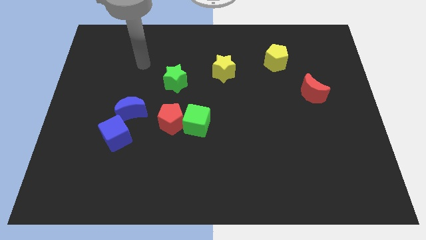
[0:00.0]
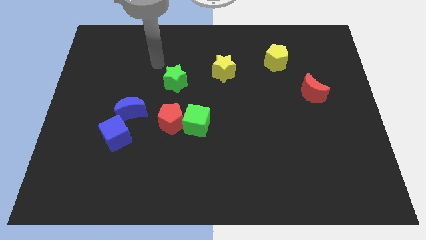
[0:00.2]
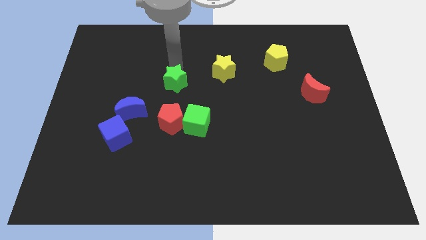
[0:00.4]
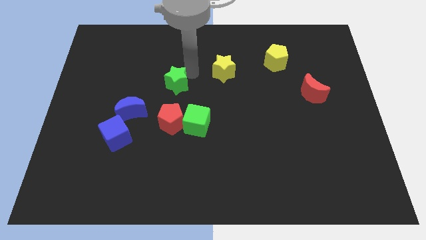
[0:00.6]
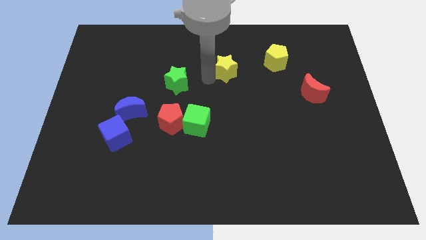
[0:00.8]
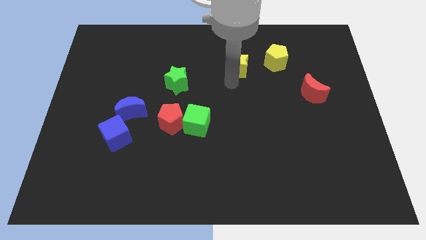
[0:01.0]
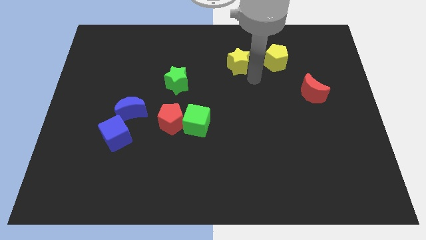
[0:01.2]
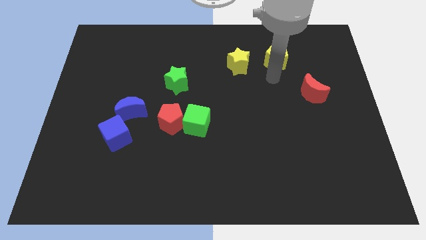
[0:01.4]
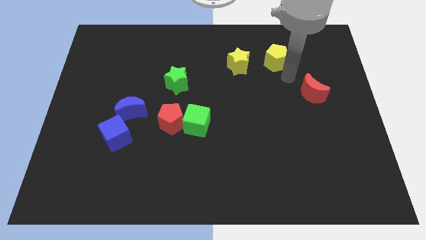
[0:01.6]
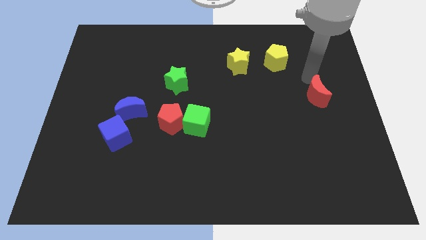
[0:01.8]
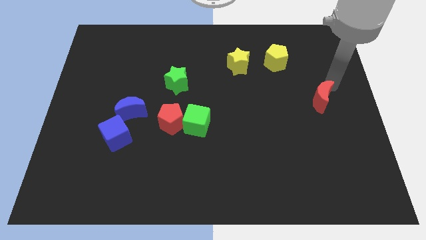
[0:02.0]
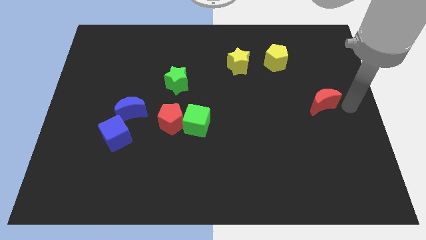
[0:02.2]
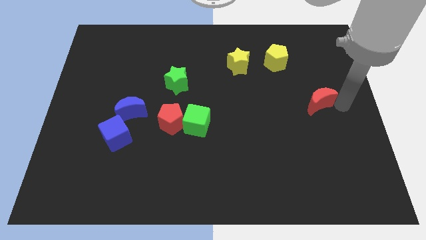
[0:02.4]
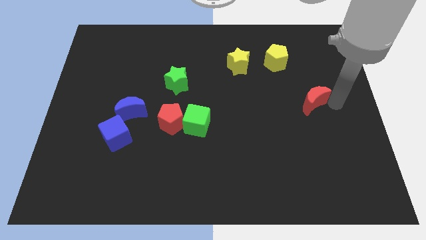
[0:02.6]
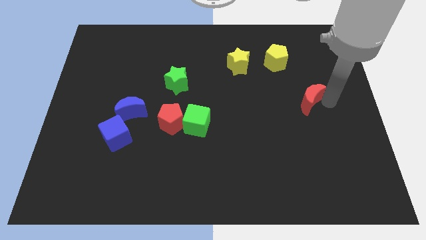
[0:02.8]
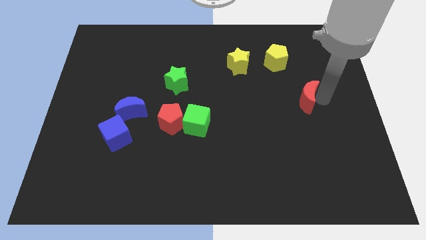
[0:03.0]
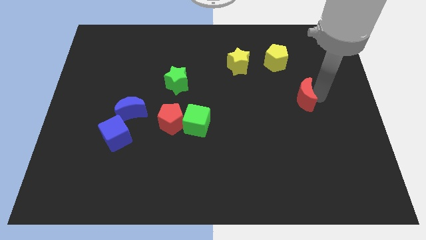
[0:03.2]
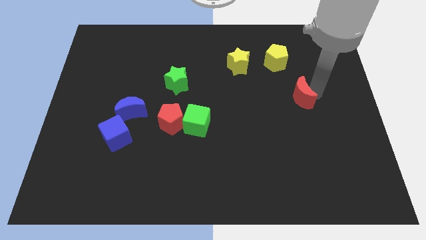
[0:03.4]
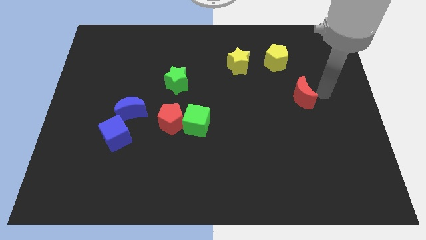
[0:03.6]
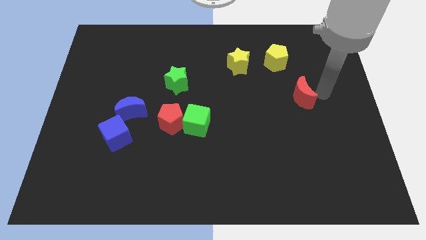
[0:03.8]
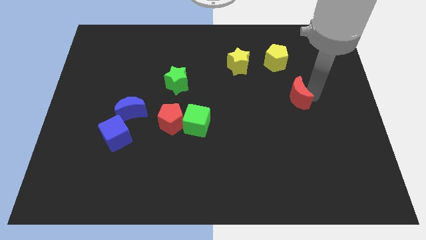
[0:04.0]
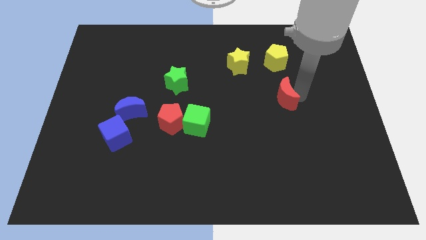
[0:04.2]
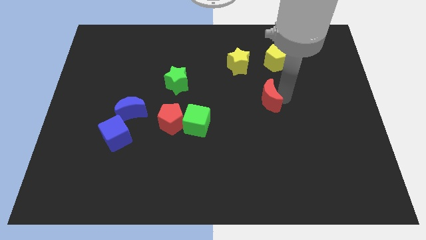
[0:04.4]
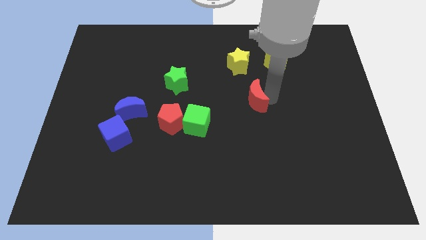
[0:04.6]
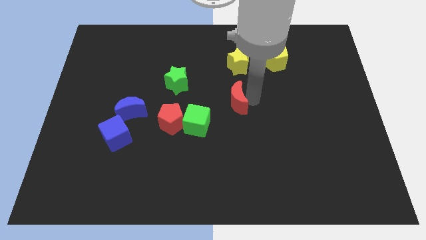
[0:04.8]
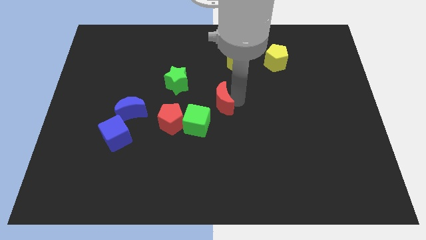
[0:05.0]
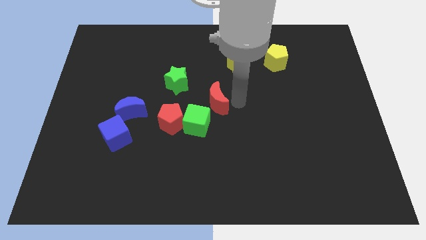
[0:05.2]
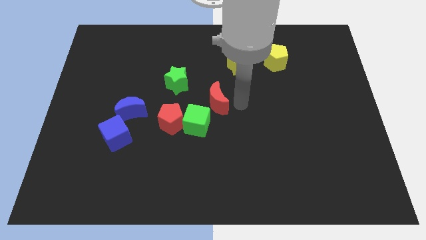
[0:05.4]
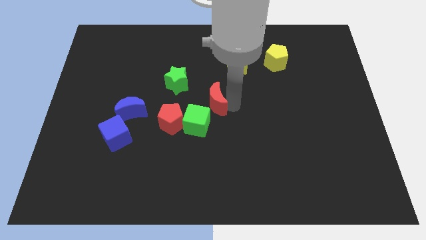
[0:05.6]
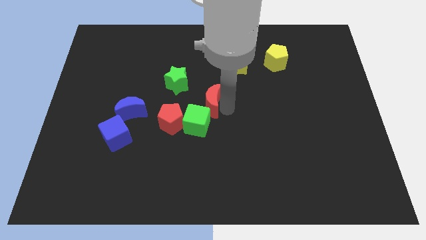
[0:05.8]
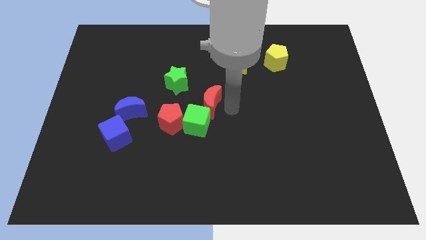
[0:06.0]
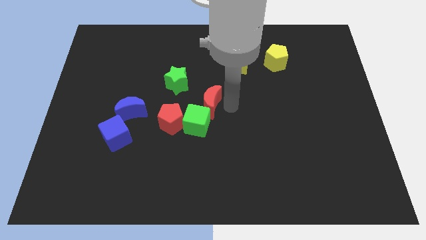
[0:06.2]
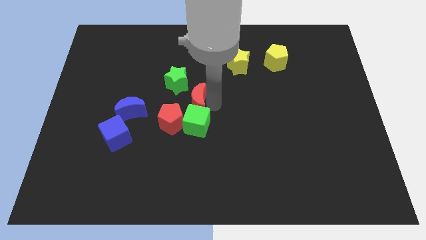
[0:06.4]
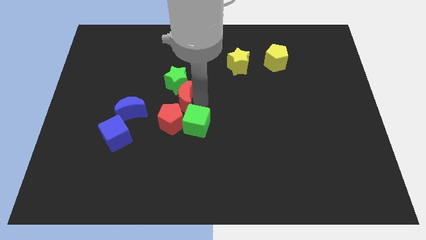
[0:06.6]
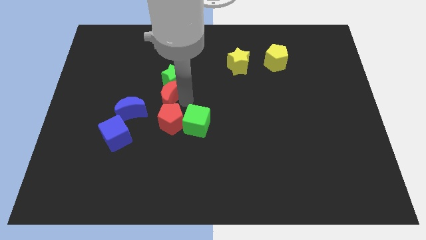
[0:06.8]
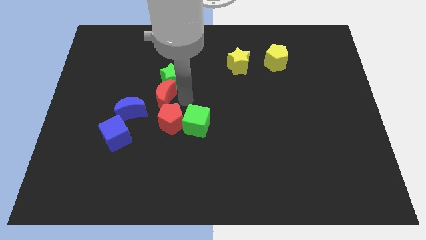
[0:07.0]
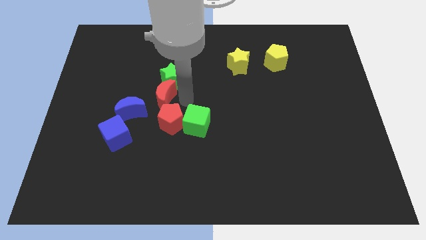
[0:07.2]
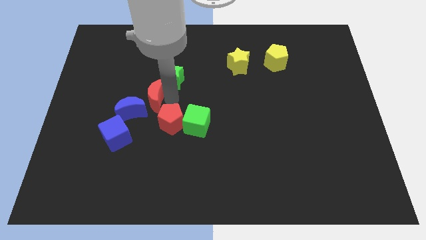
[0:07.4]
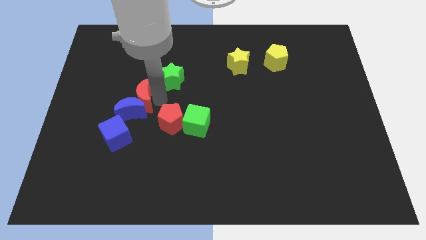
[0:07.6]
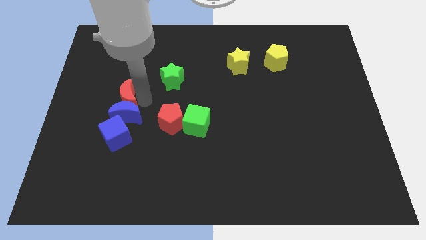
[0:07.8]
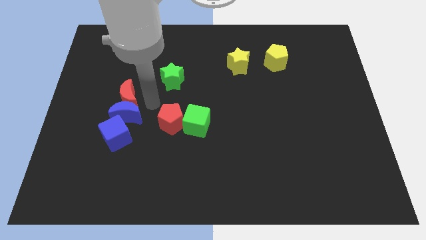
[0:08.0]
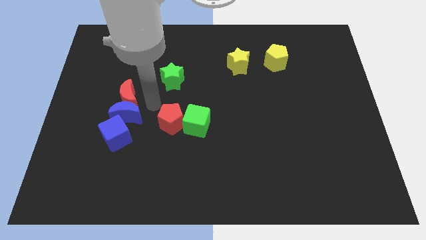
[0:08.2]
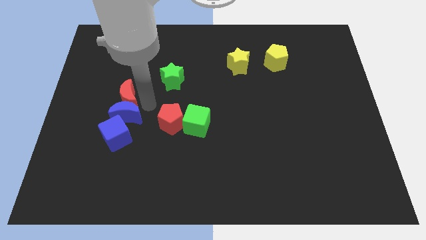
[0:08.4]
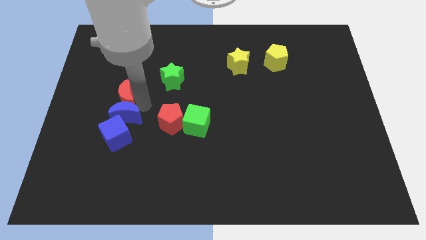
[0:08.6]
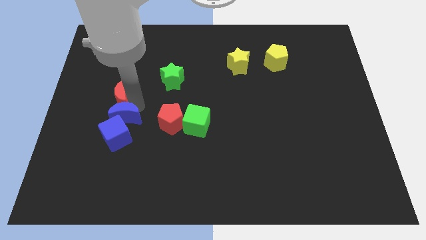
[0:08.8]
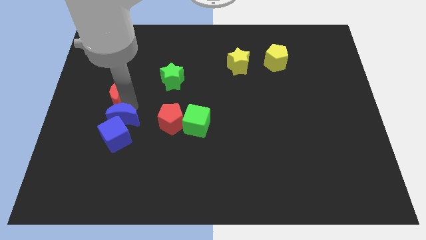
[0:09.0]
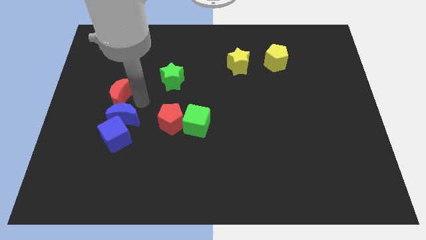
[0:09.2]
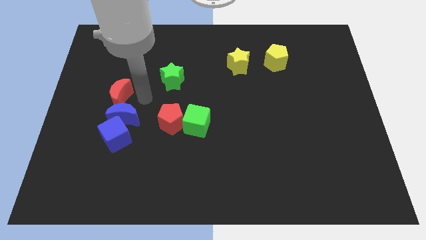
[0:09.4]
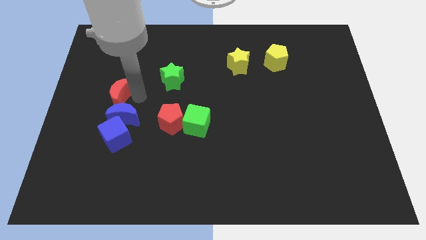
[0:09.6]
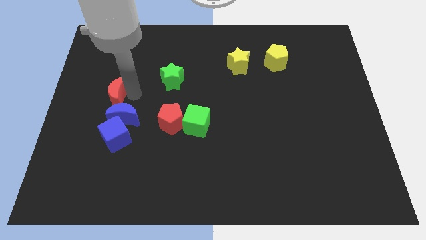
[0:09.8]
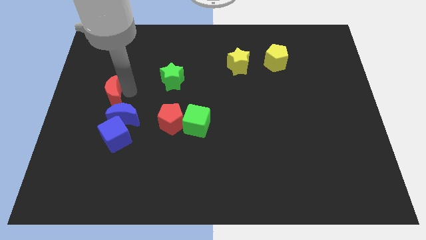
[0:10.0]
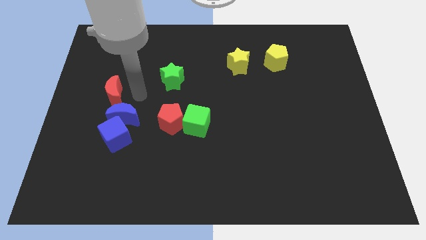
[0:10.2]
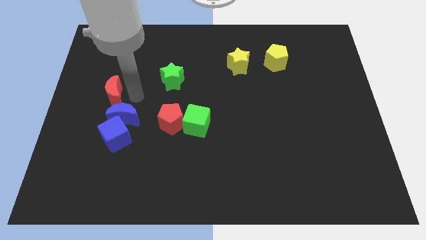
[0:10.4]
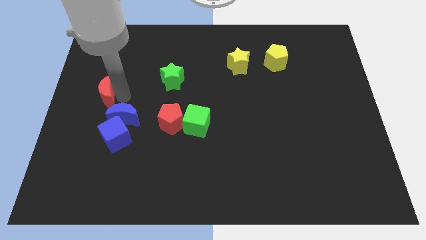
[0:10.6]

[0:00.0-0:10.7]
put the red moon to the left side of the board
